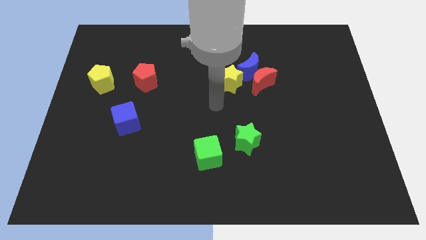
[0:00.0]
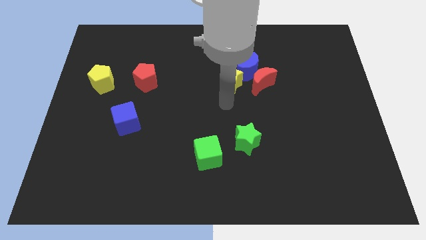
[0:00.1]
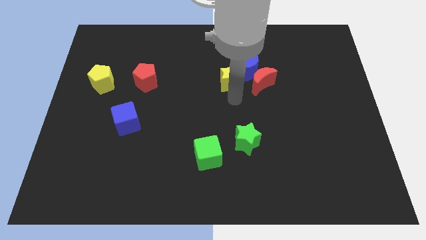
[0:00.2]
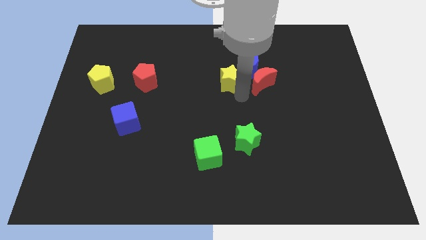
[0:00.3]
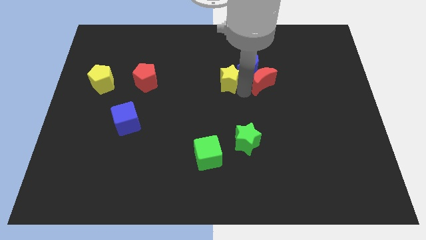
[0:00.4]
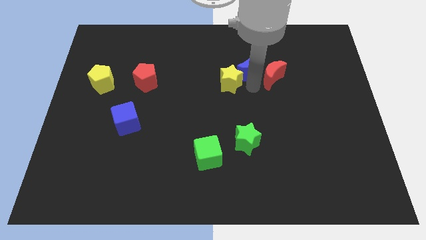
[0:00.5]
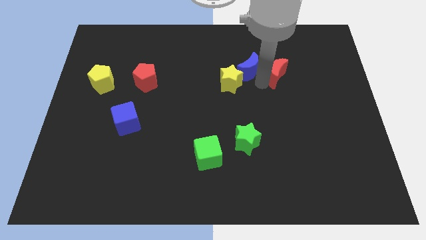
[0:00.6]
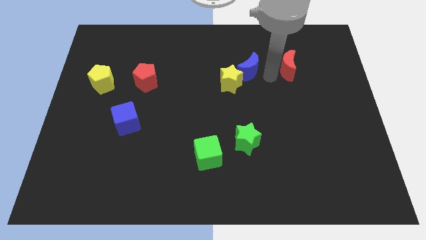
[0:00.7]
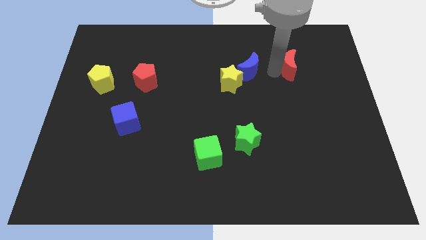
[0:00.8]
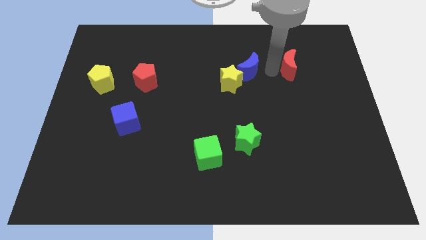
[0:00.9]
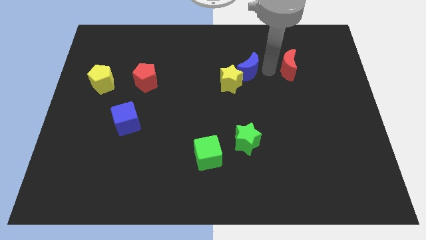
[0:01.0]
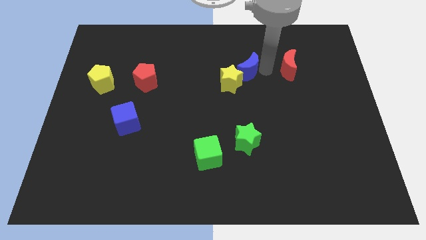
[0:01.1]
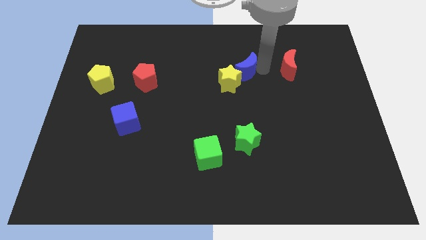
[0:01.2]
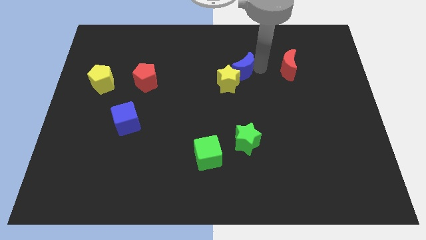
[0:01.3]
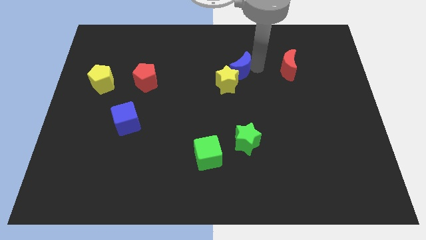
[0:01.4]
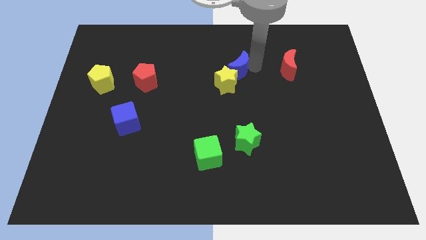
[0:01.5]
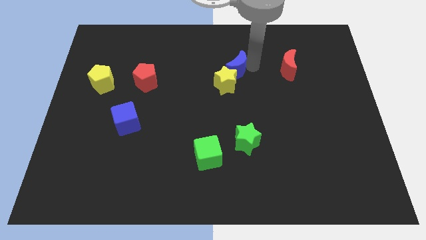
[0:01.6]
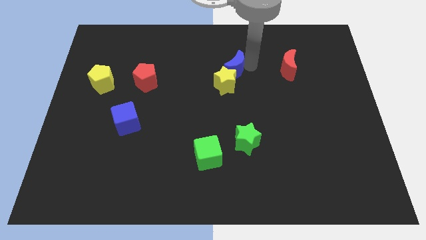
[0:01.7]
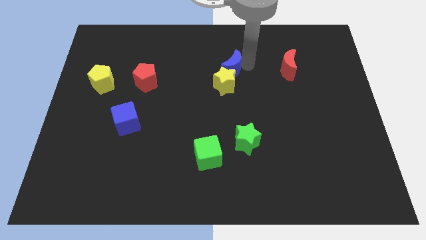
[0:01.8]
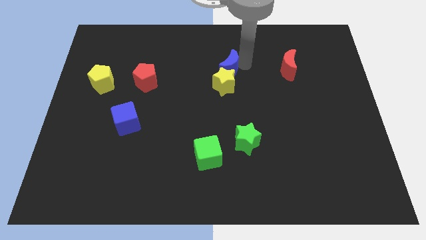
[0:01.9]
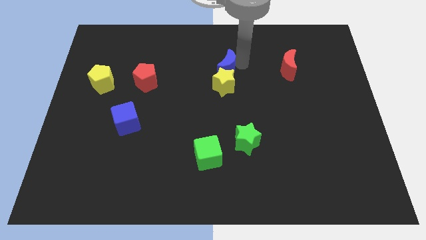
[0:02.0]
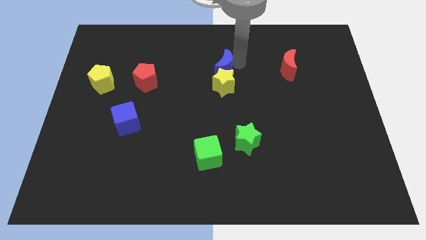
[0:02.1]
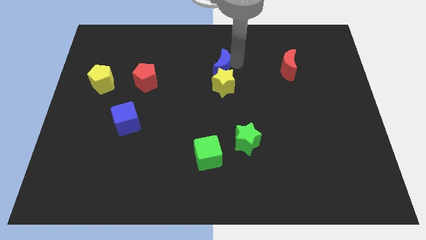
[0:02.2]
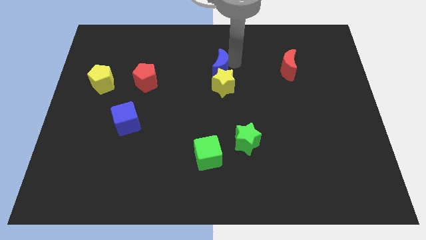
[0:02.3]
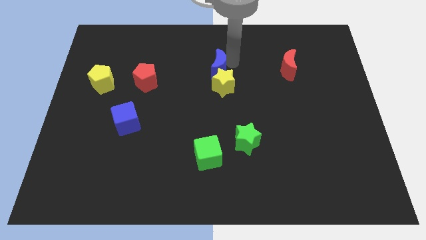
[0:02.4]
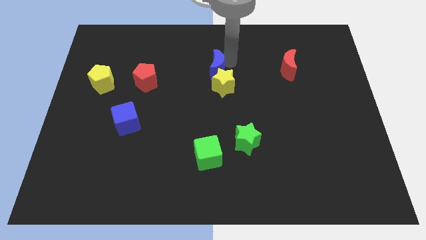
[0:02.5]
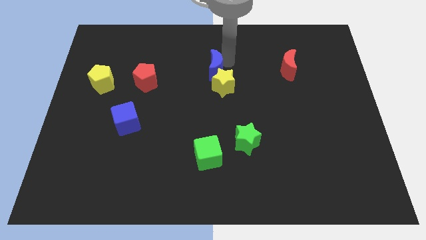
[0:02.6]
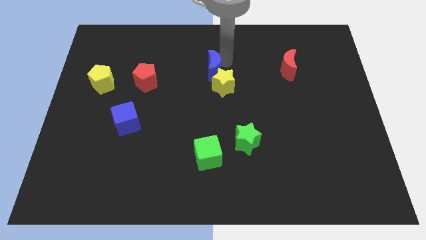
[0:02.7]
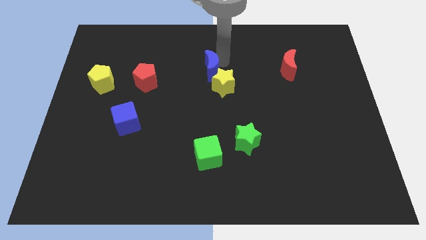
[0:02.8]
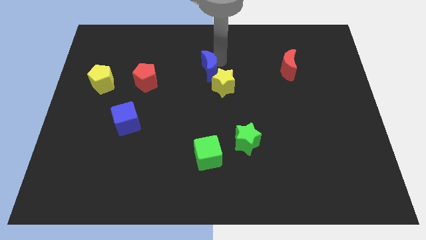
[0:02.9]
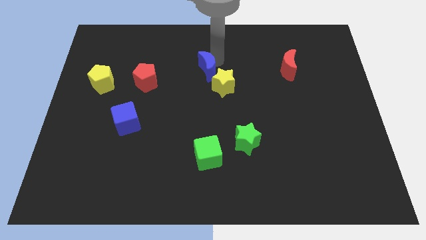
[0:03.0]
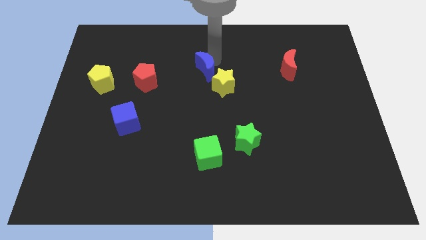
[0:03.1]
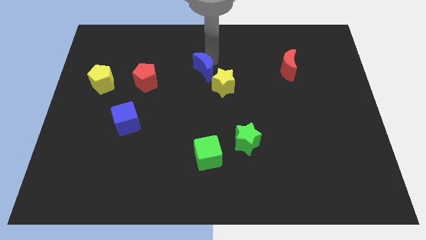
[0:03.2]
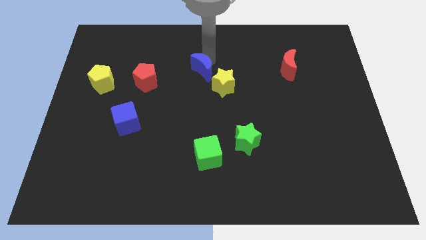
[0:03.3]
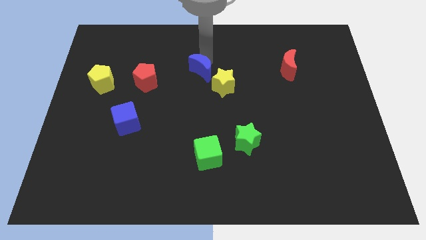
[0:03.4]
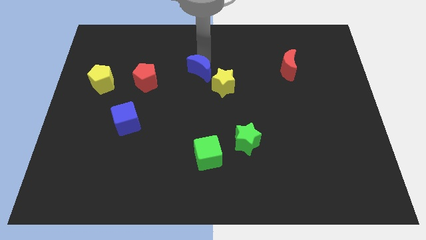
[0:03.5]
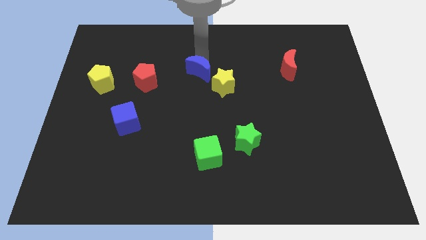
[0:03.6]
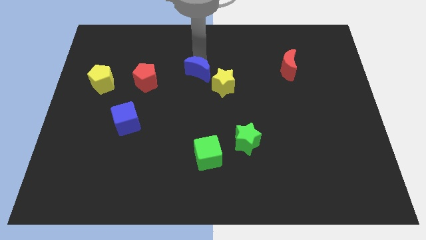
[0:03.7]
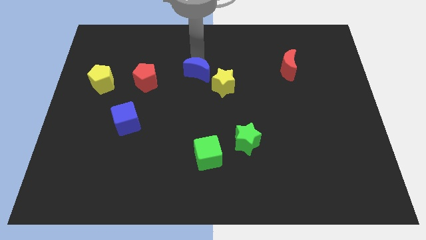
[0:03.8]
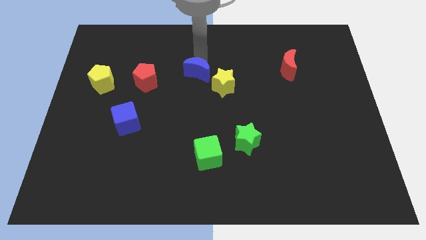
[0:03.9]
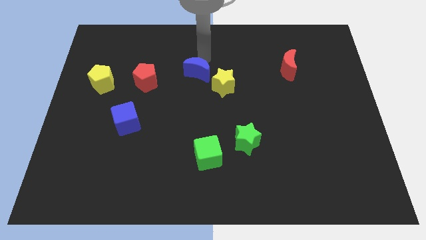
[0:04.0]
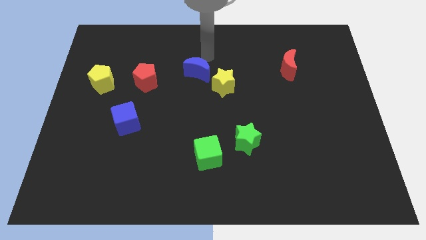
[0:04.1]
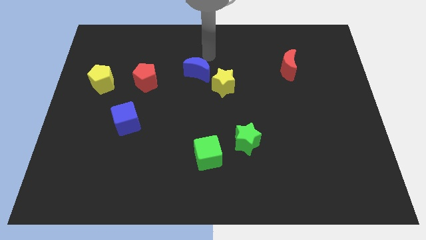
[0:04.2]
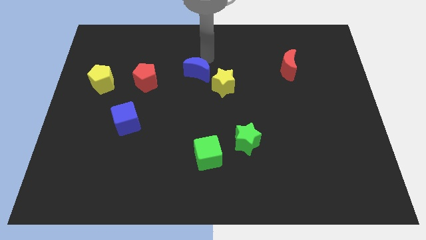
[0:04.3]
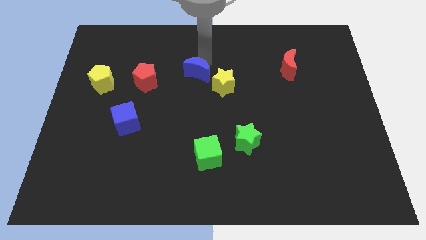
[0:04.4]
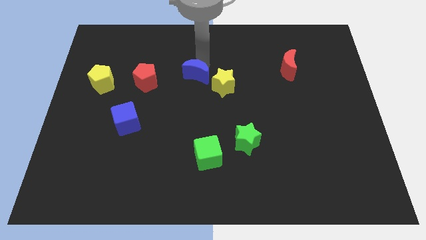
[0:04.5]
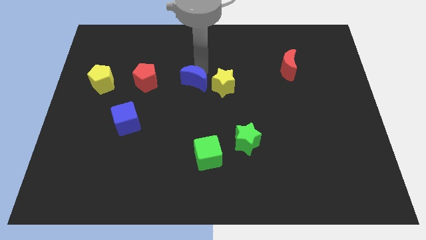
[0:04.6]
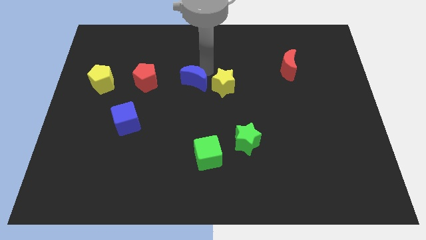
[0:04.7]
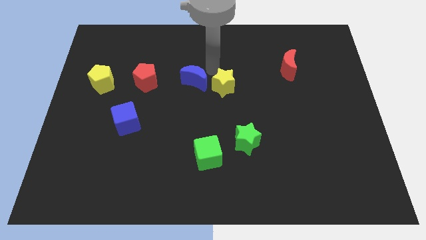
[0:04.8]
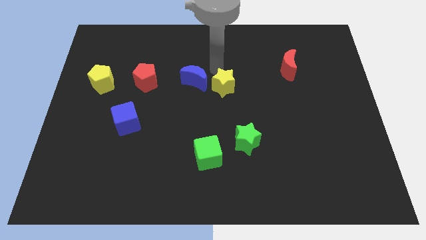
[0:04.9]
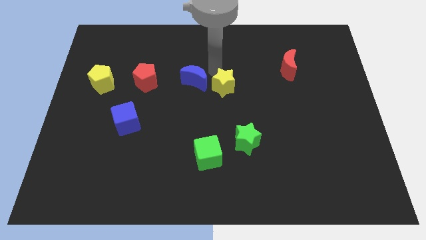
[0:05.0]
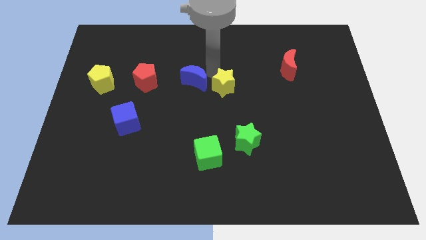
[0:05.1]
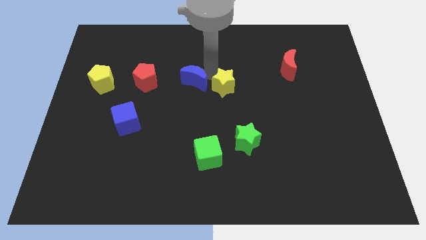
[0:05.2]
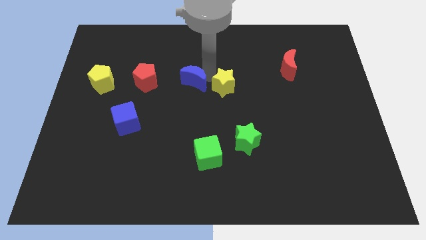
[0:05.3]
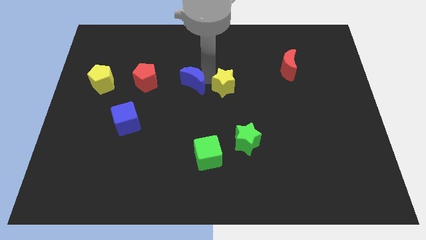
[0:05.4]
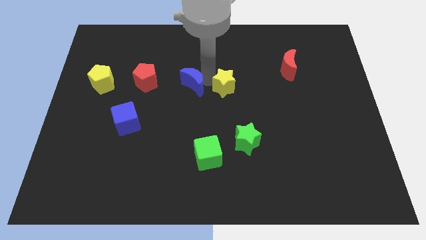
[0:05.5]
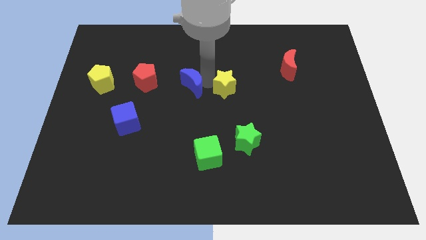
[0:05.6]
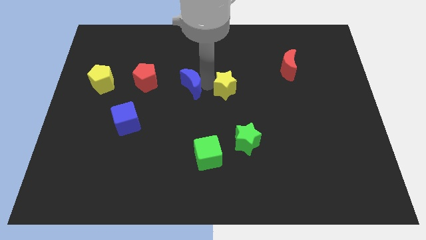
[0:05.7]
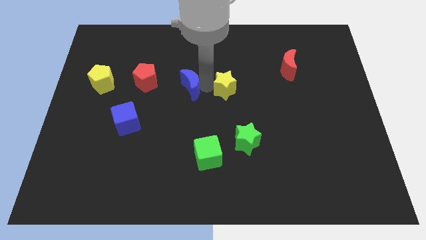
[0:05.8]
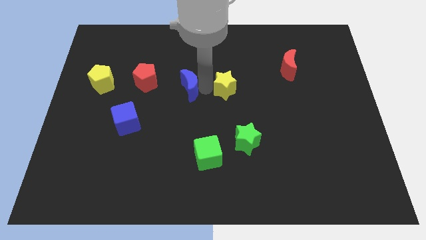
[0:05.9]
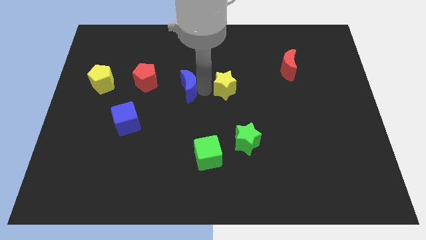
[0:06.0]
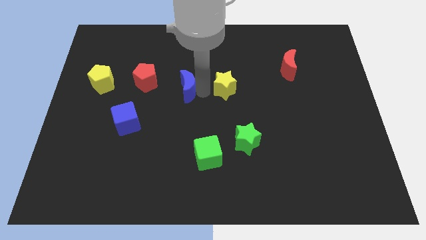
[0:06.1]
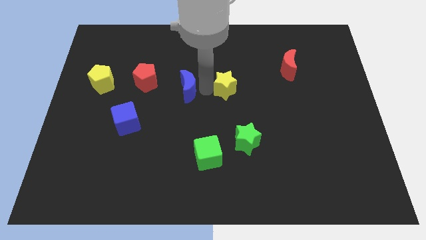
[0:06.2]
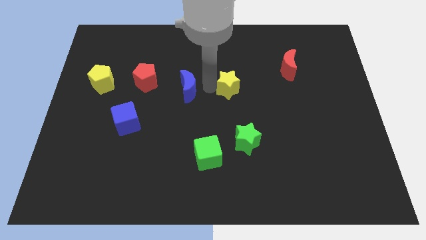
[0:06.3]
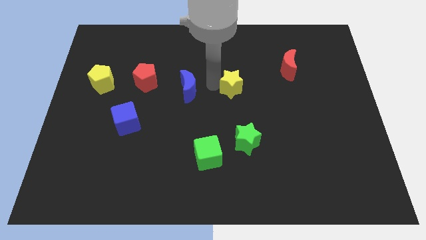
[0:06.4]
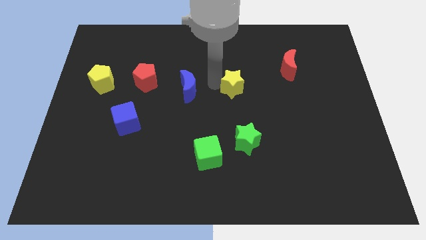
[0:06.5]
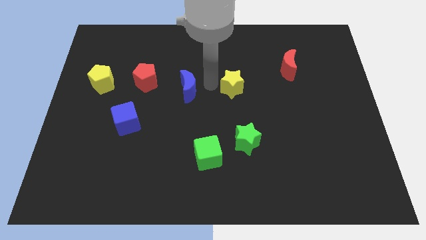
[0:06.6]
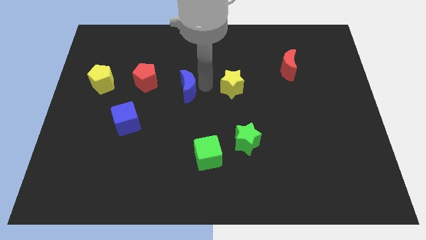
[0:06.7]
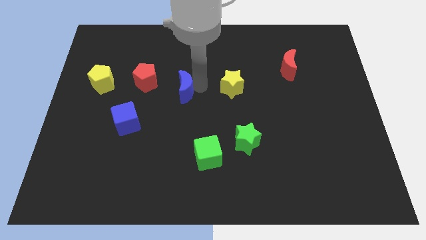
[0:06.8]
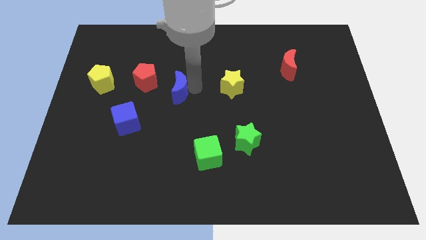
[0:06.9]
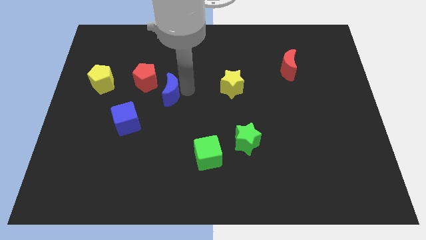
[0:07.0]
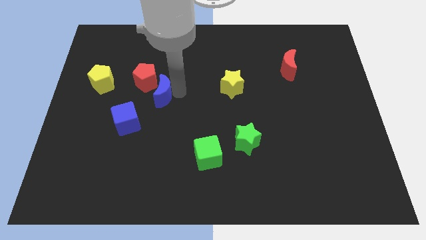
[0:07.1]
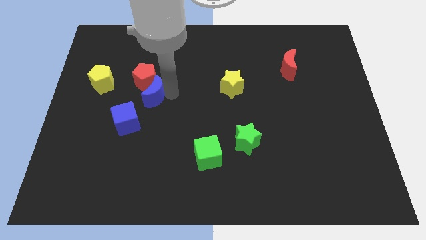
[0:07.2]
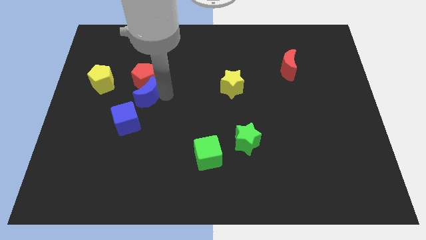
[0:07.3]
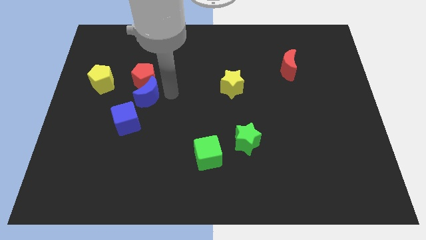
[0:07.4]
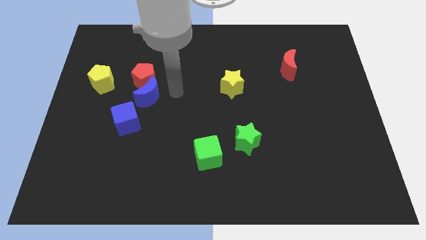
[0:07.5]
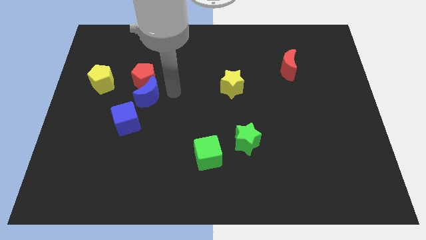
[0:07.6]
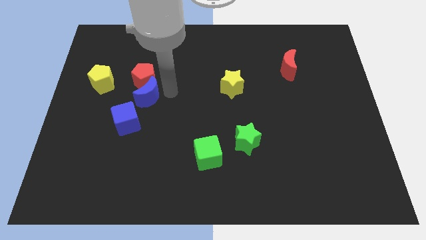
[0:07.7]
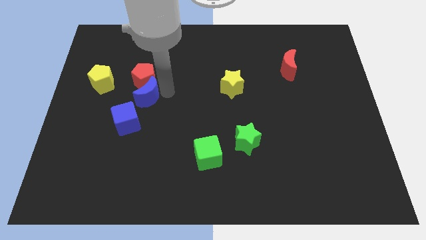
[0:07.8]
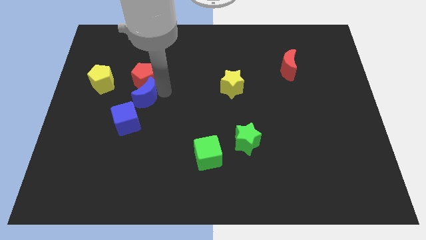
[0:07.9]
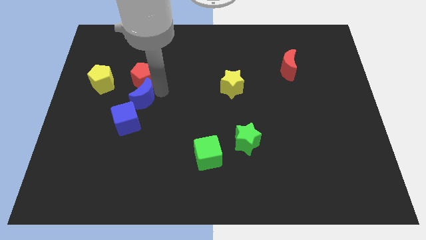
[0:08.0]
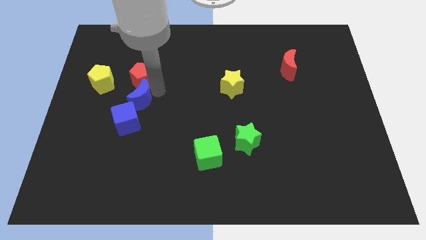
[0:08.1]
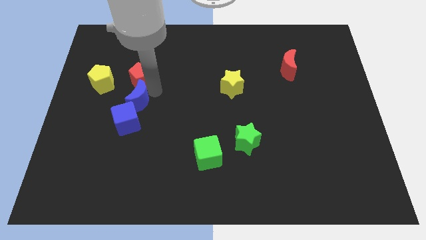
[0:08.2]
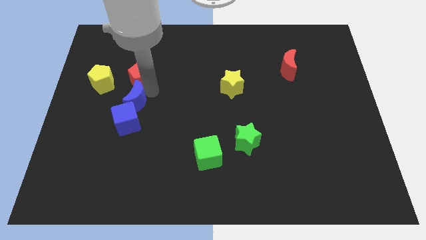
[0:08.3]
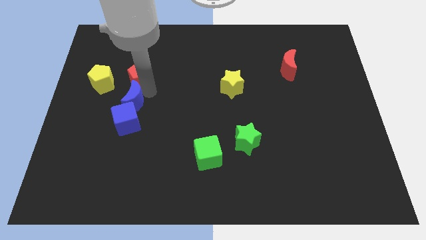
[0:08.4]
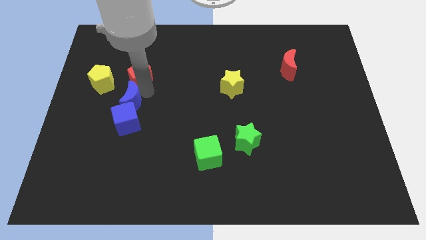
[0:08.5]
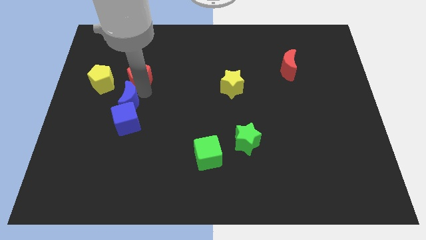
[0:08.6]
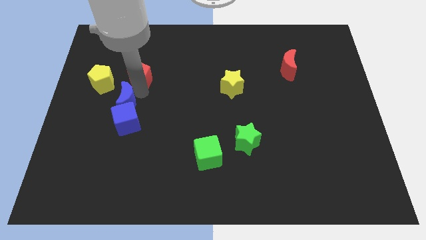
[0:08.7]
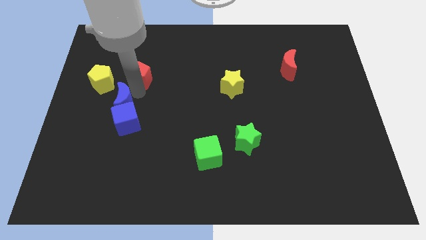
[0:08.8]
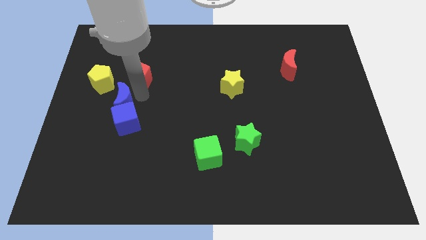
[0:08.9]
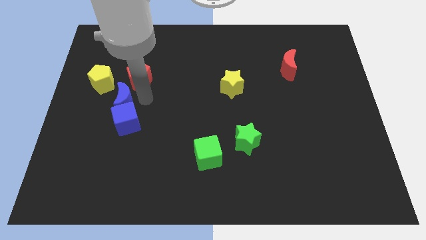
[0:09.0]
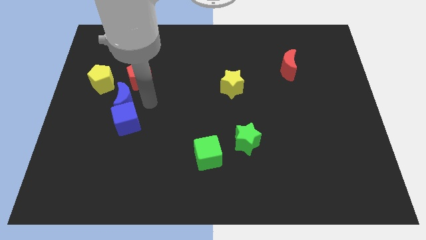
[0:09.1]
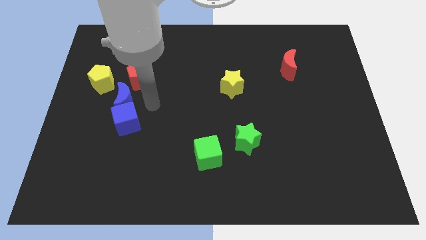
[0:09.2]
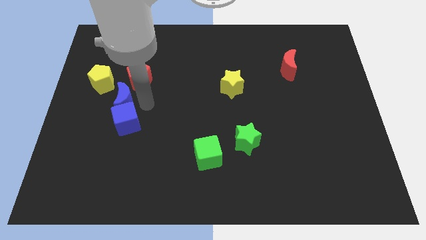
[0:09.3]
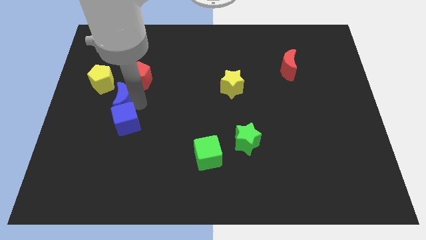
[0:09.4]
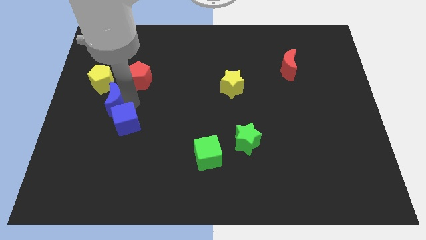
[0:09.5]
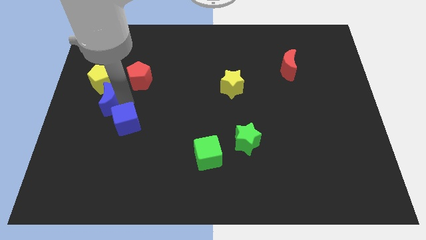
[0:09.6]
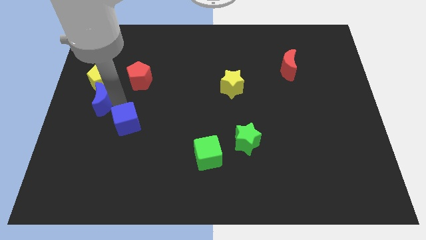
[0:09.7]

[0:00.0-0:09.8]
put the blue moon to the left side of the board
